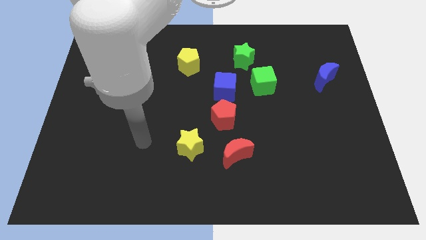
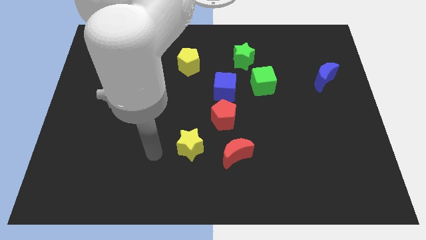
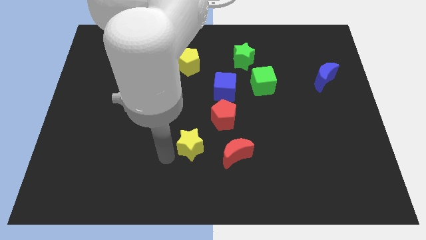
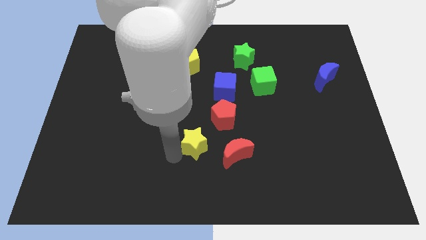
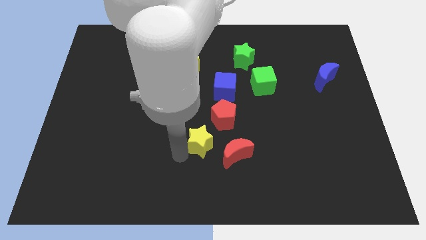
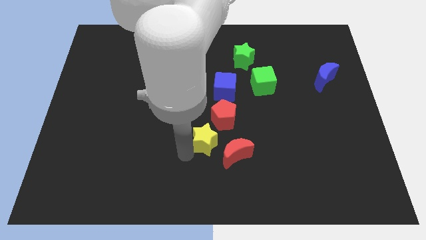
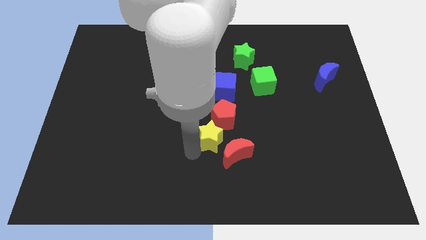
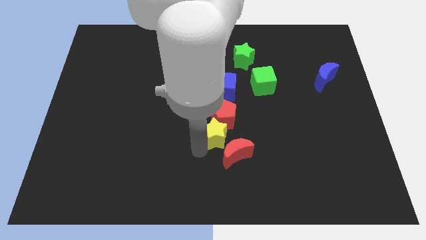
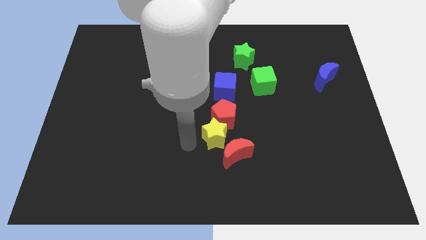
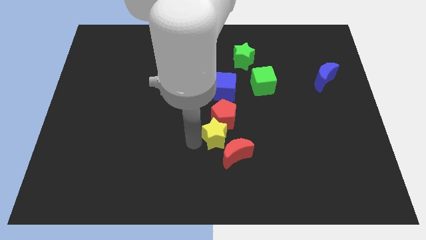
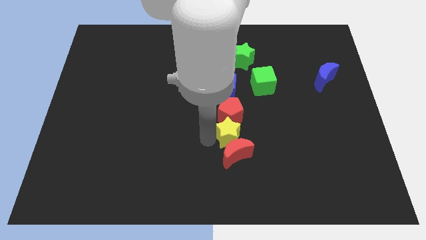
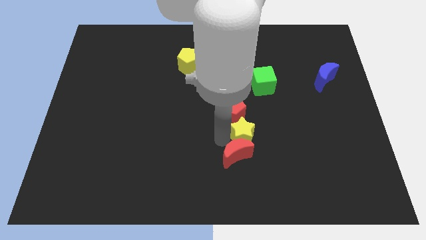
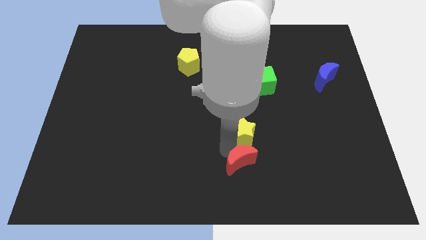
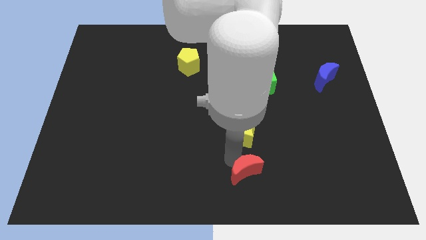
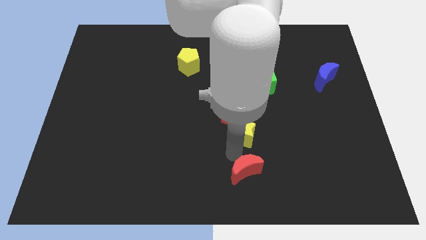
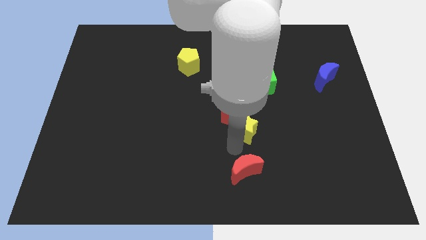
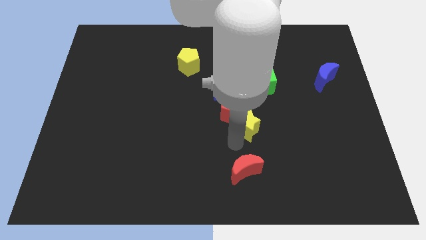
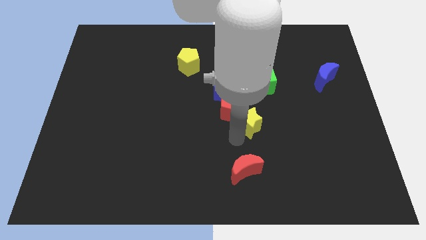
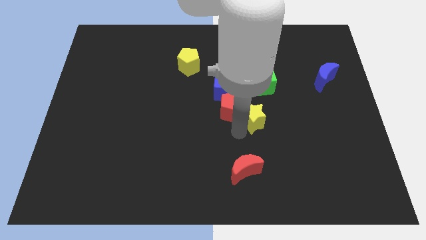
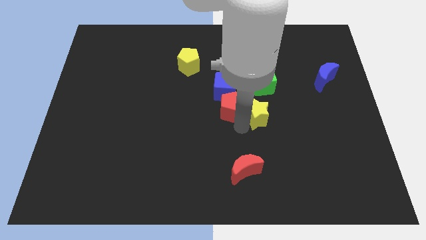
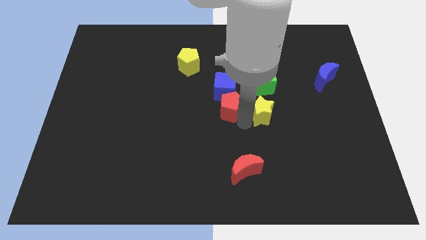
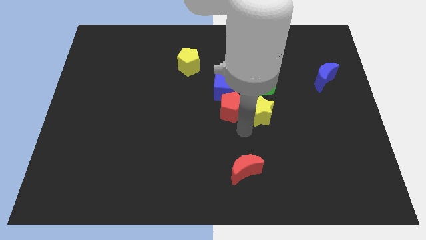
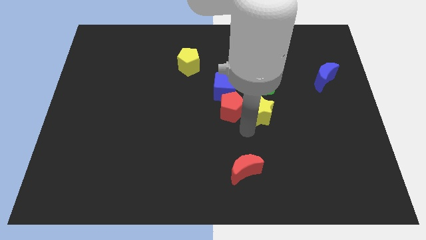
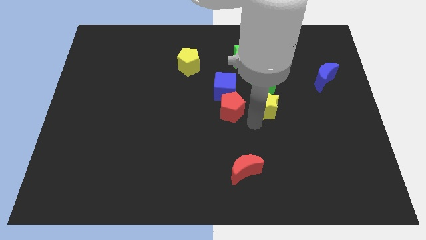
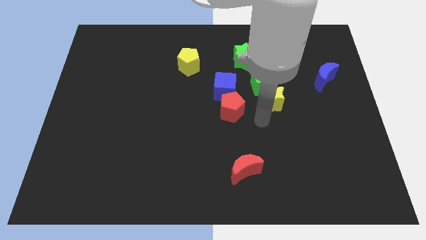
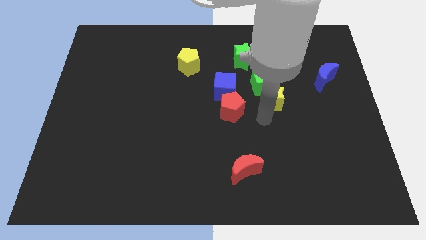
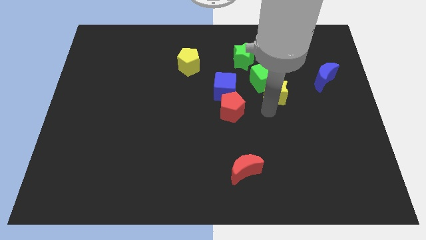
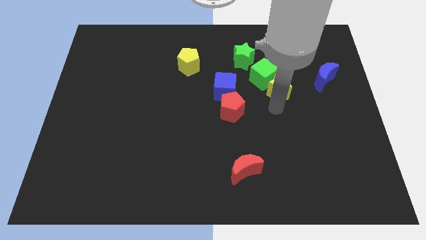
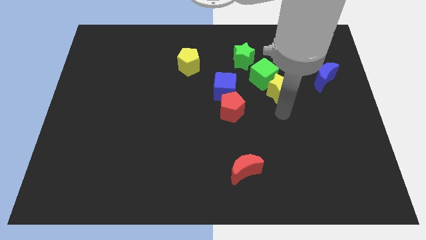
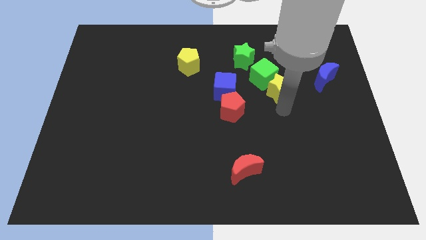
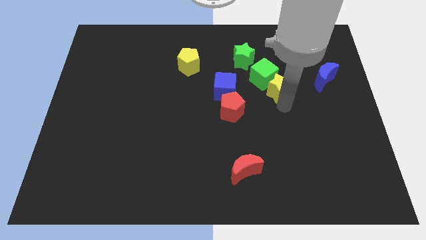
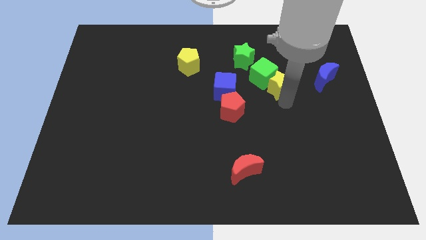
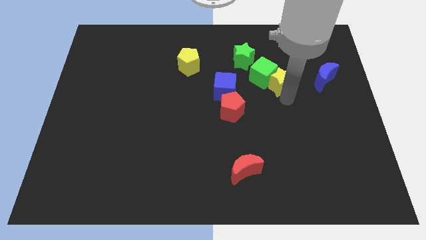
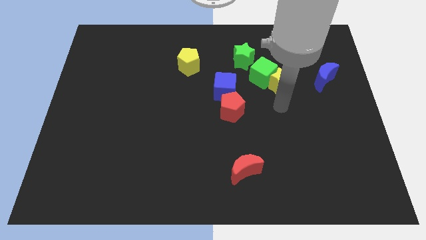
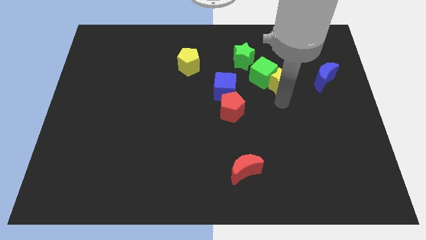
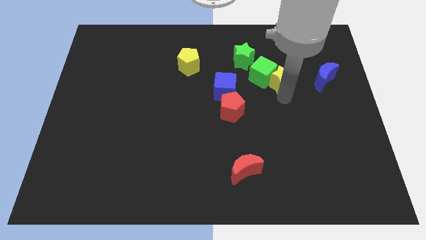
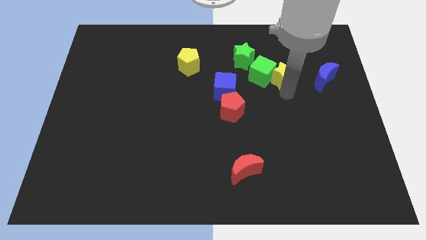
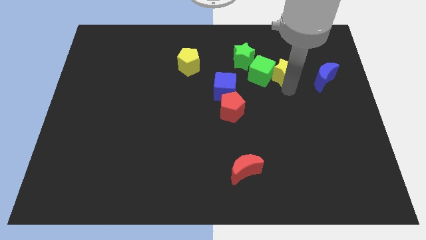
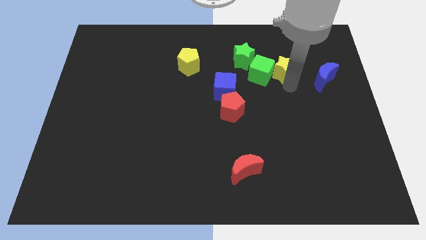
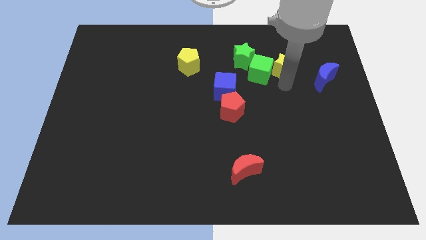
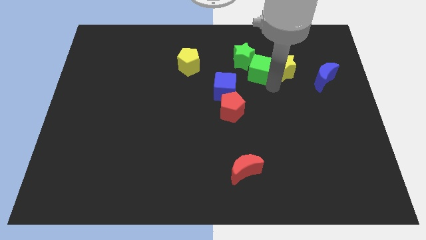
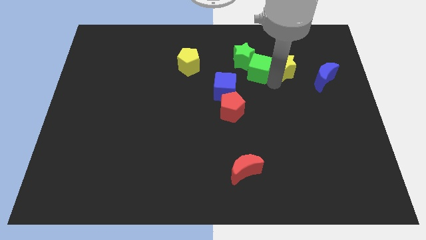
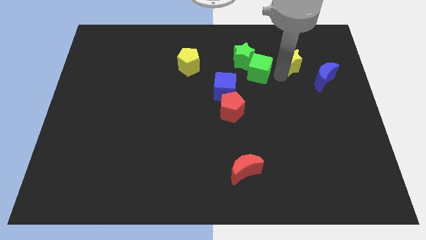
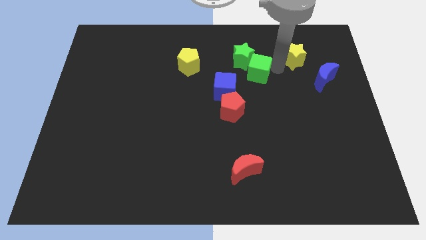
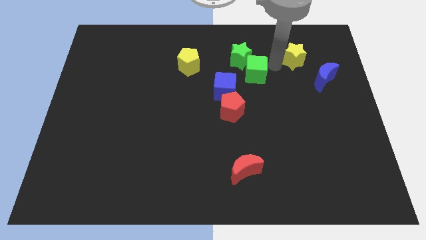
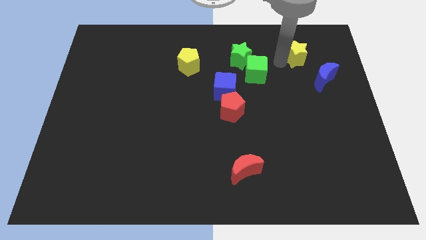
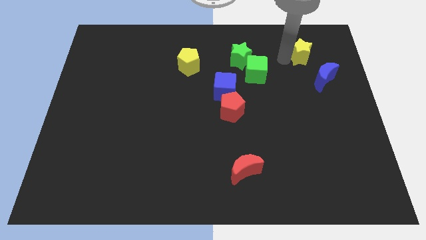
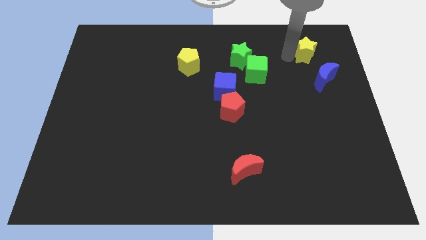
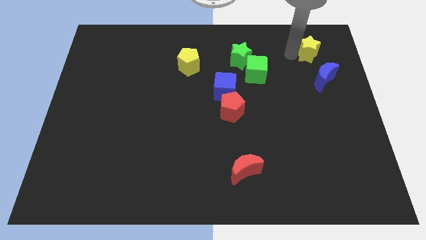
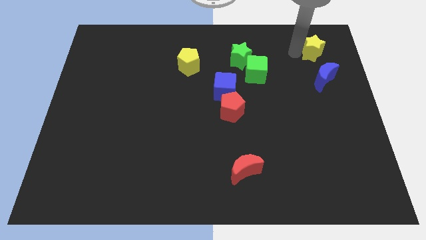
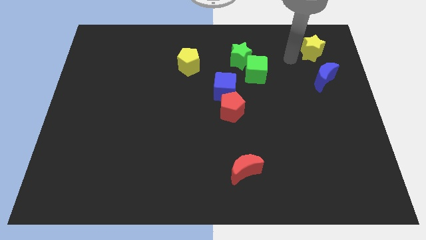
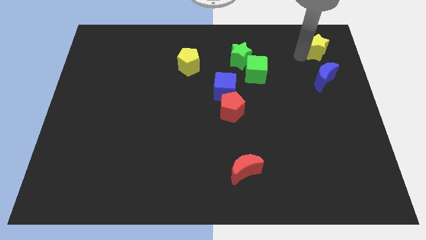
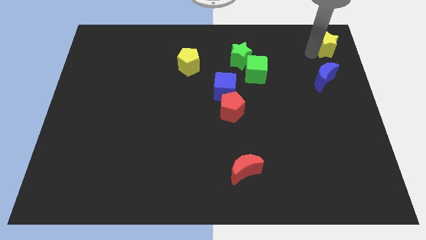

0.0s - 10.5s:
put the yellow star to the top right

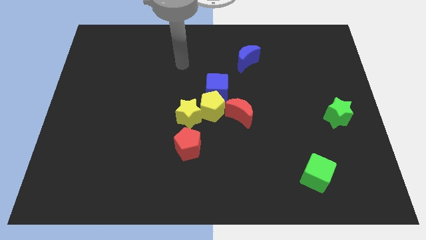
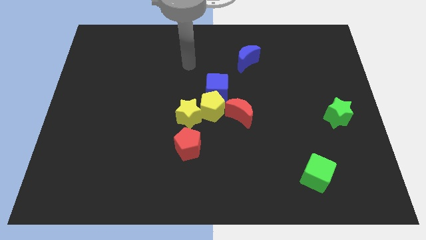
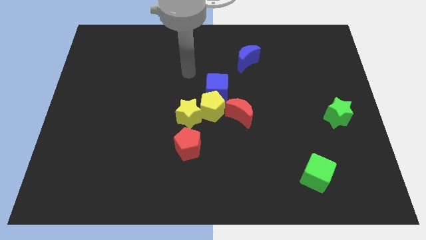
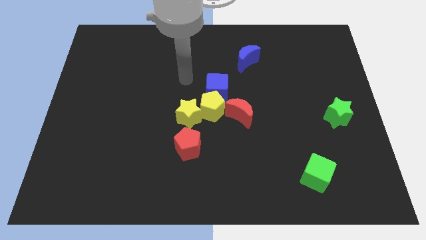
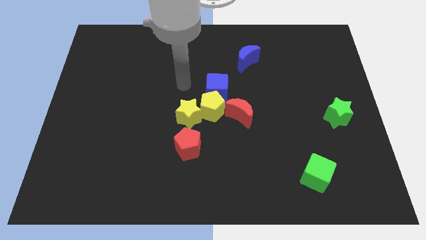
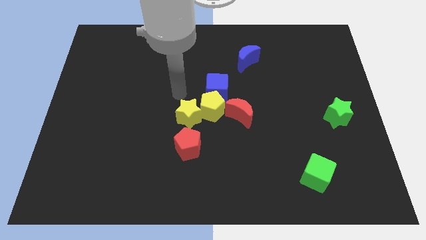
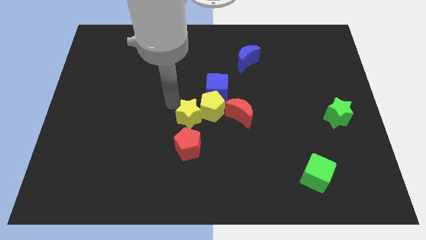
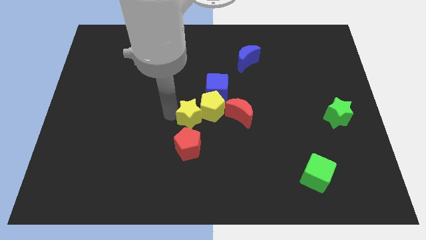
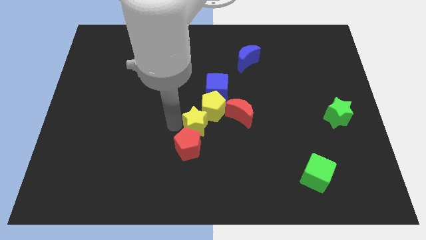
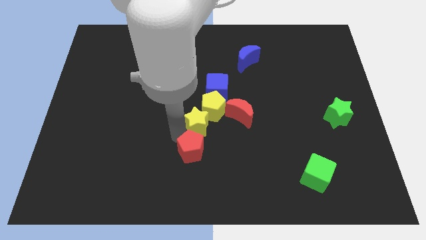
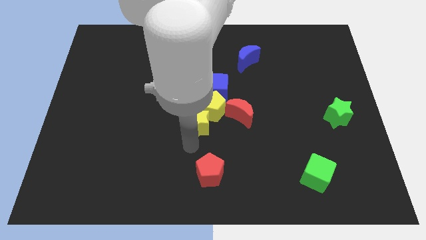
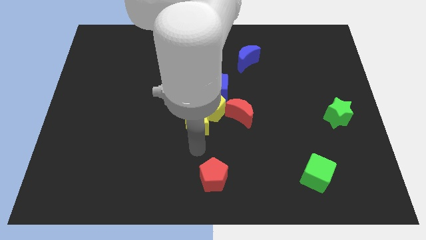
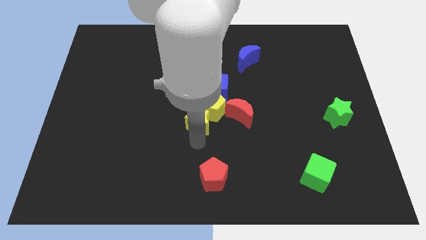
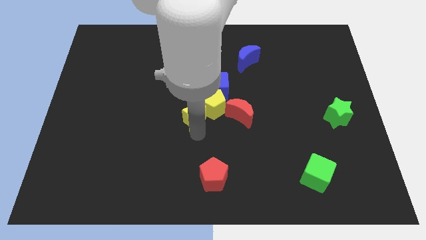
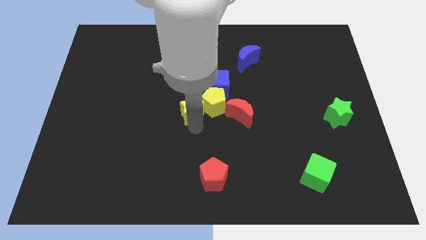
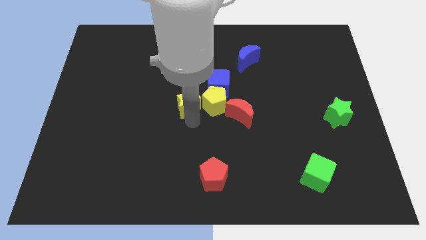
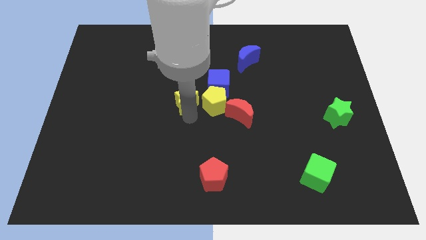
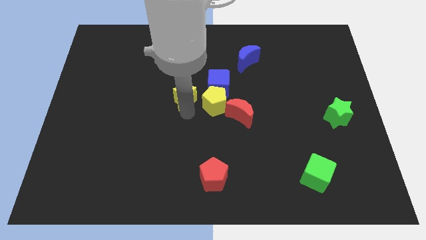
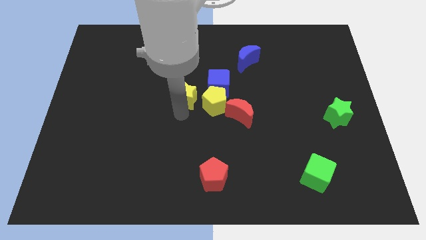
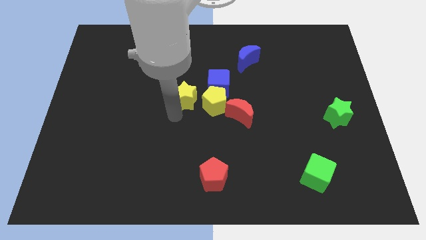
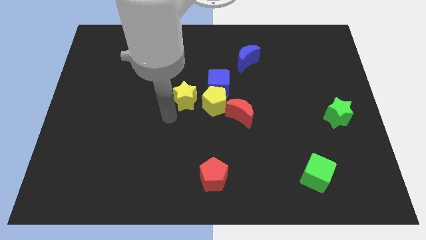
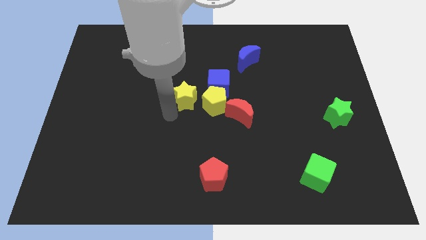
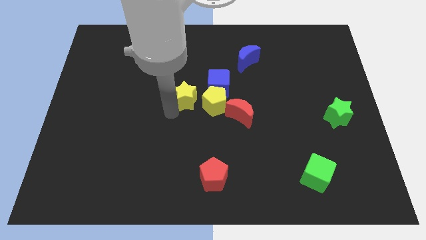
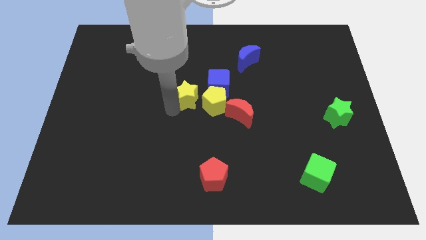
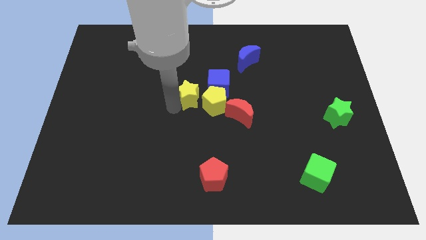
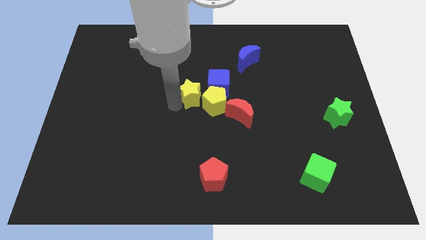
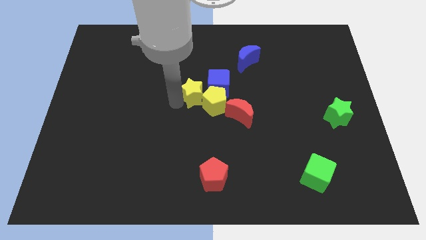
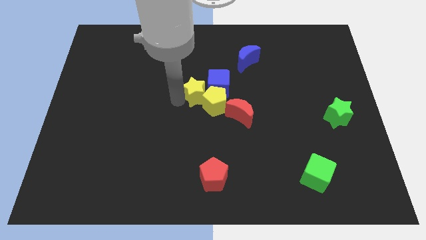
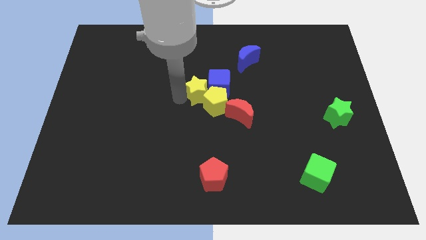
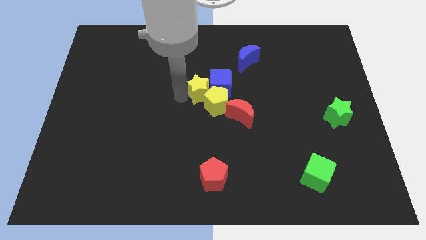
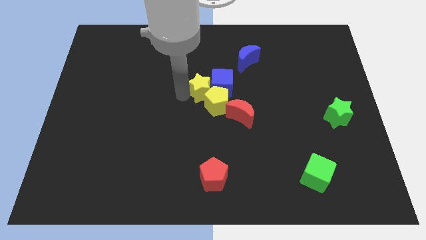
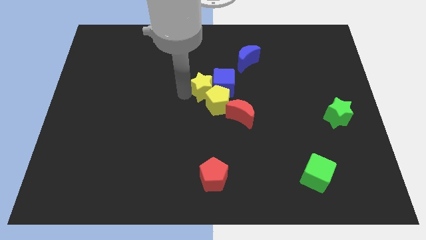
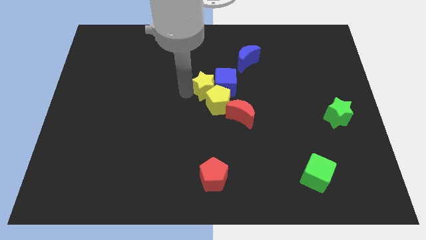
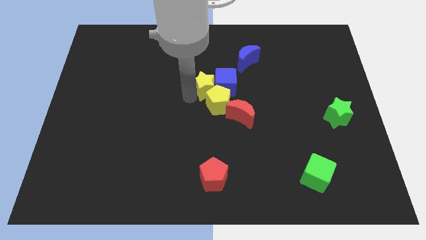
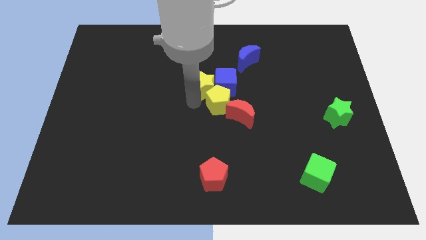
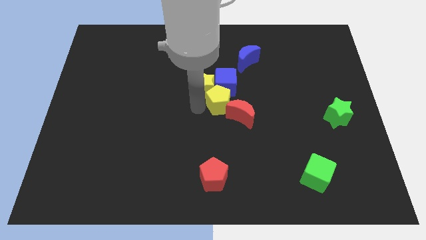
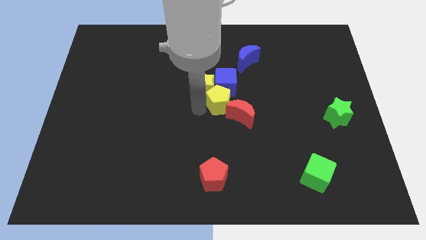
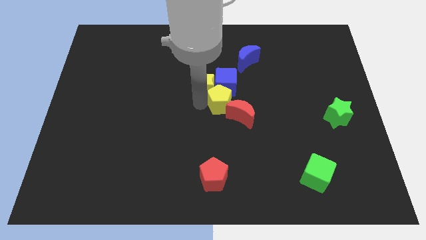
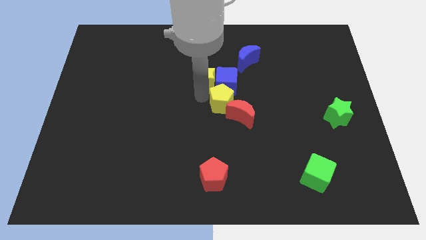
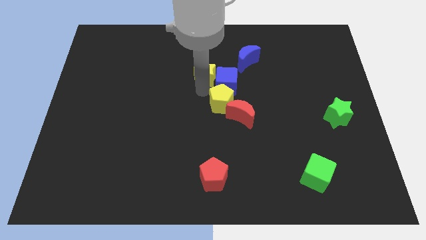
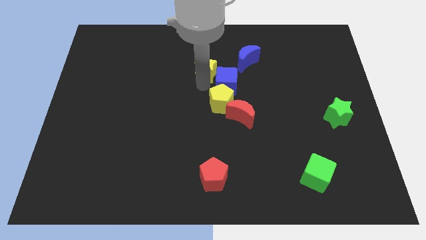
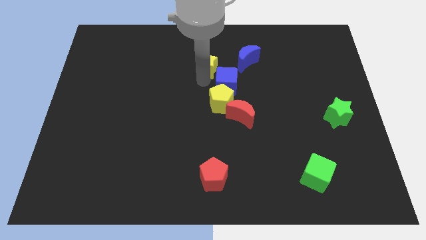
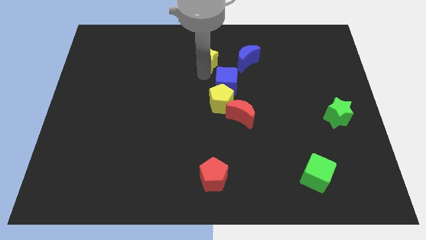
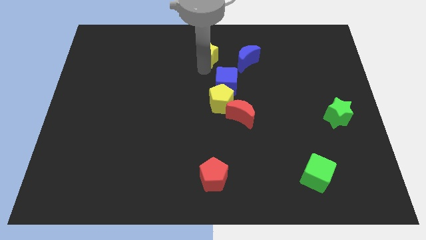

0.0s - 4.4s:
put the yellow star to the top side
